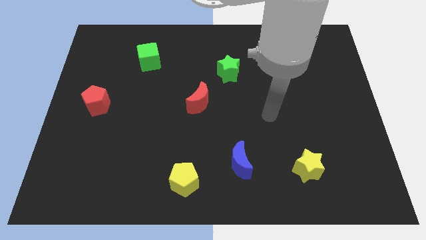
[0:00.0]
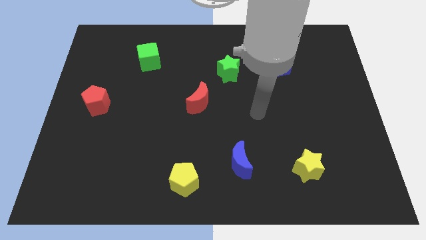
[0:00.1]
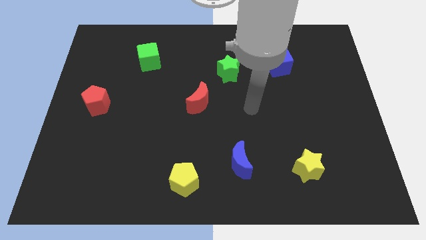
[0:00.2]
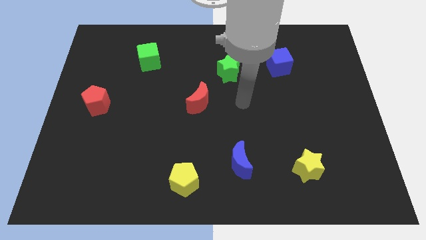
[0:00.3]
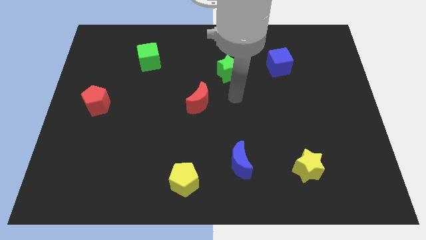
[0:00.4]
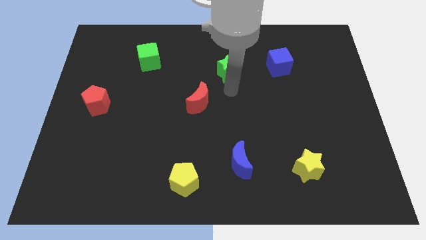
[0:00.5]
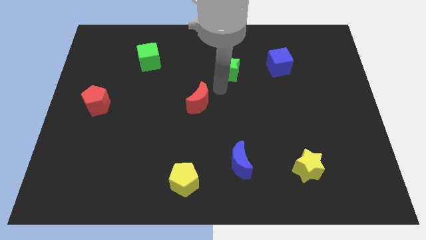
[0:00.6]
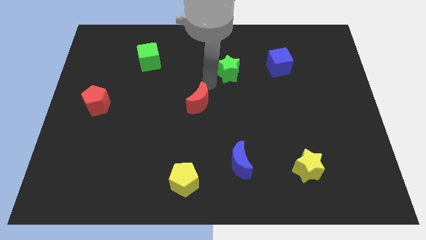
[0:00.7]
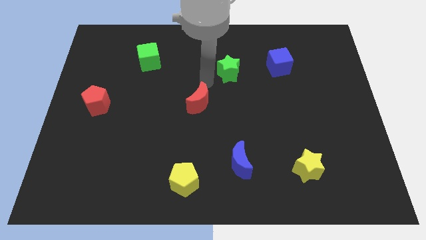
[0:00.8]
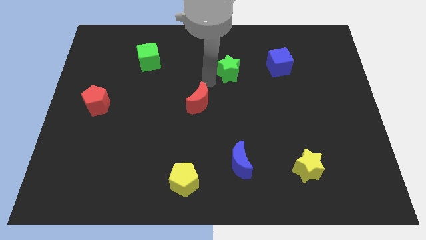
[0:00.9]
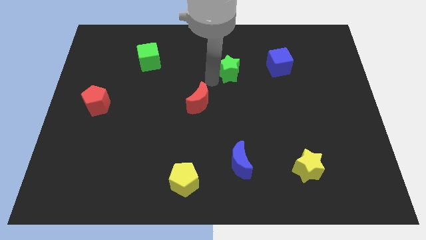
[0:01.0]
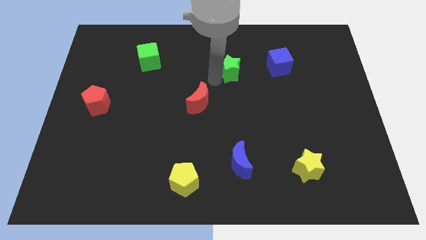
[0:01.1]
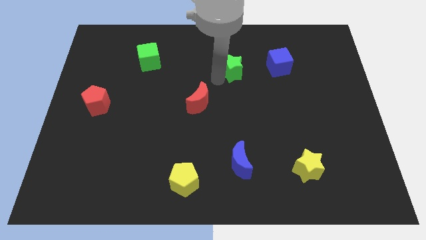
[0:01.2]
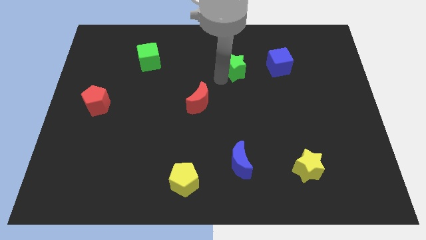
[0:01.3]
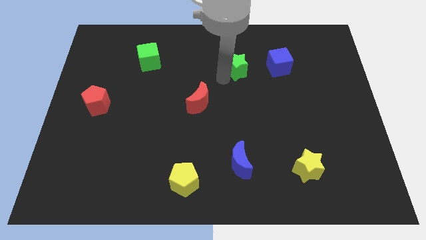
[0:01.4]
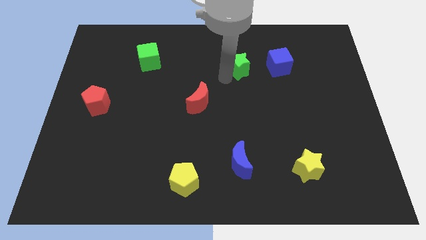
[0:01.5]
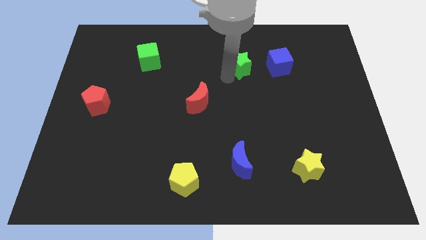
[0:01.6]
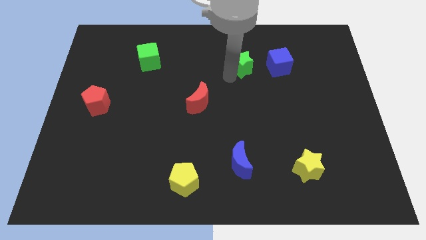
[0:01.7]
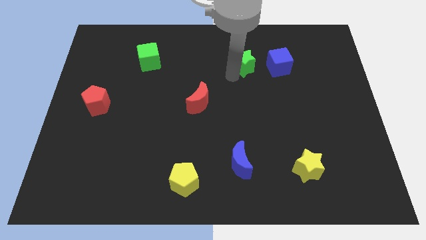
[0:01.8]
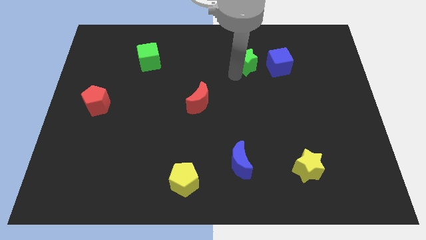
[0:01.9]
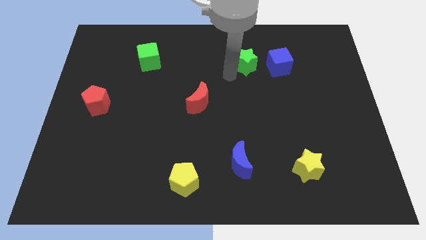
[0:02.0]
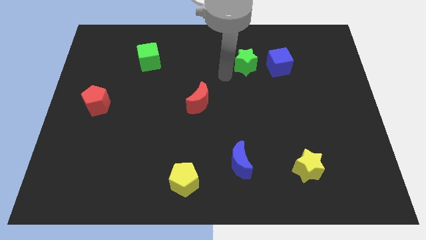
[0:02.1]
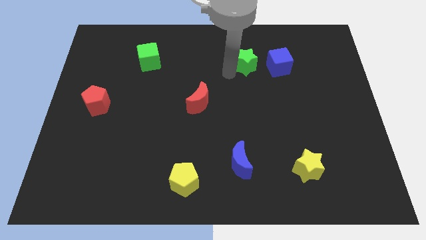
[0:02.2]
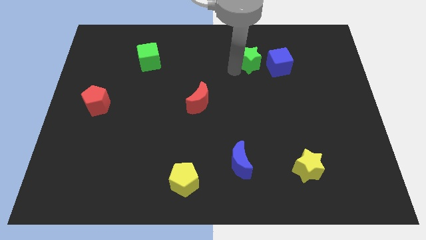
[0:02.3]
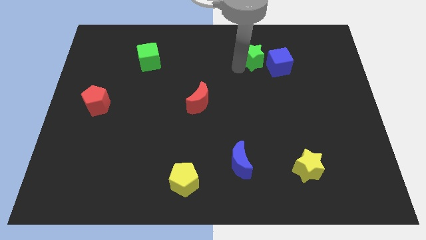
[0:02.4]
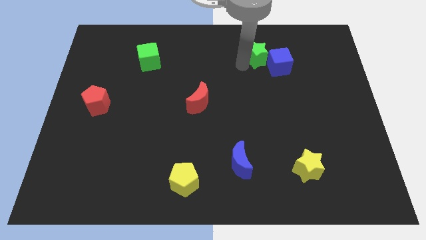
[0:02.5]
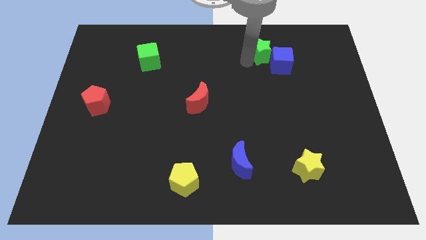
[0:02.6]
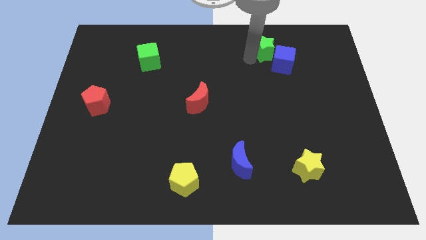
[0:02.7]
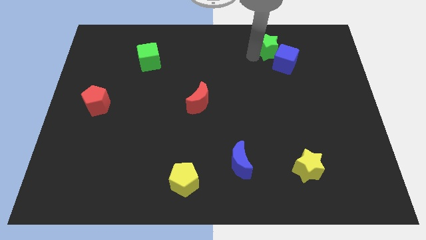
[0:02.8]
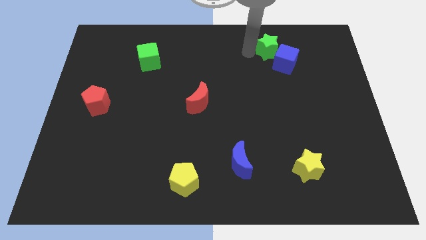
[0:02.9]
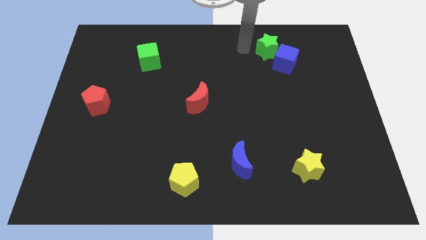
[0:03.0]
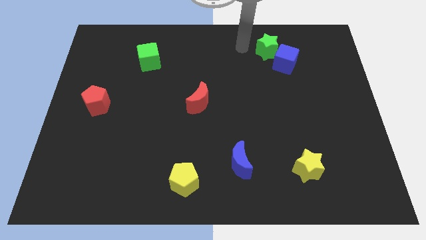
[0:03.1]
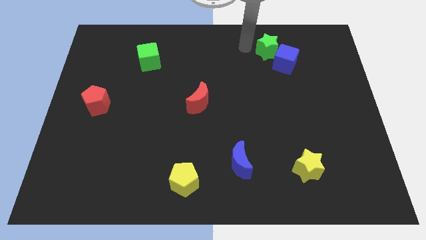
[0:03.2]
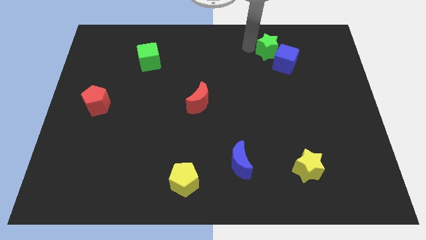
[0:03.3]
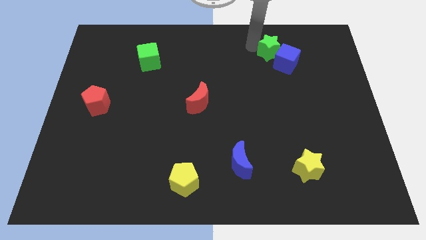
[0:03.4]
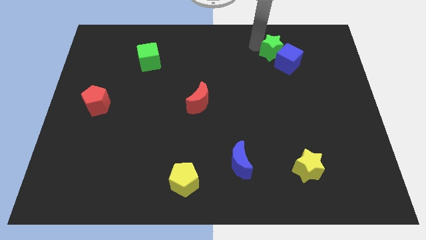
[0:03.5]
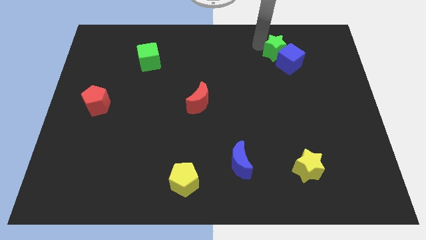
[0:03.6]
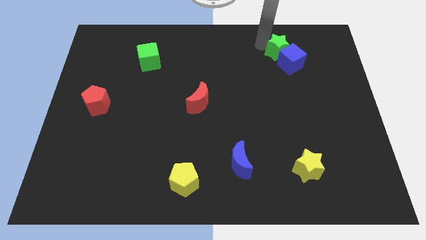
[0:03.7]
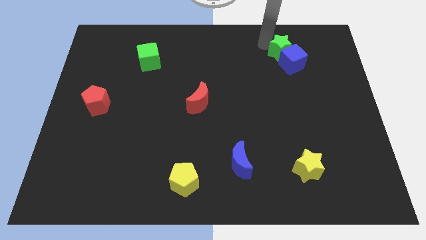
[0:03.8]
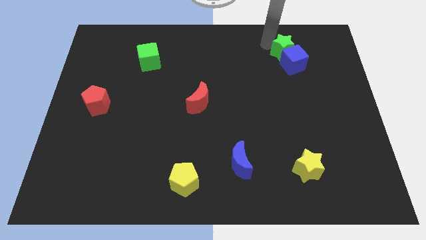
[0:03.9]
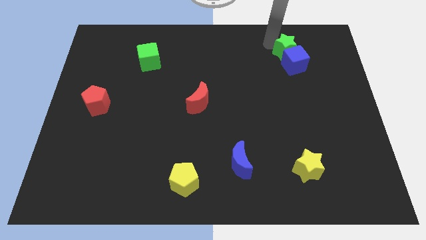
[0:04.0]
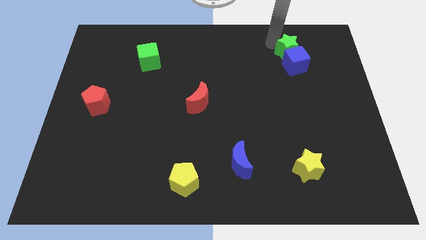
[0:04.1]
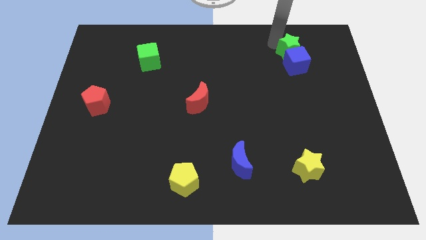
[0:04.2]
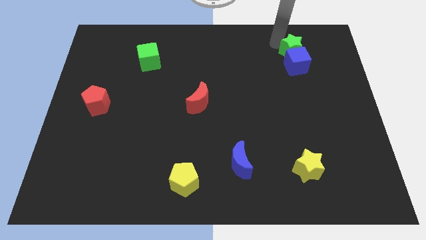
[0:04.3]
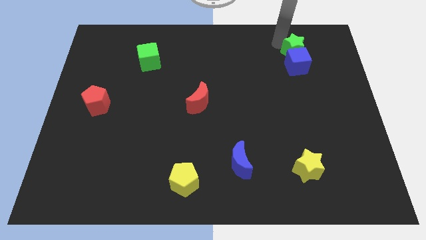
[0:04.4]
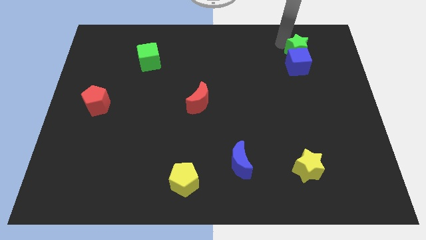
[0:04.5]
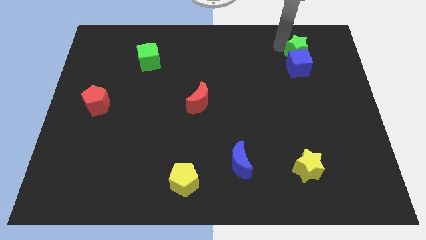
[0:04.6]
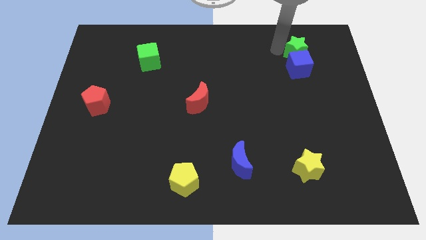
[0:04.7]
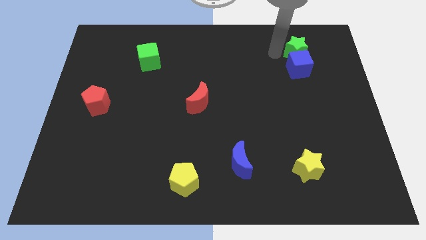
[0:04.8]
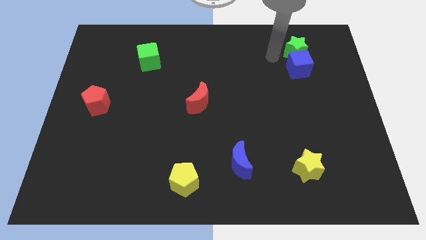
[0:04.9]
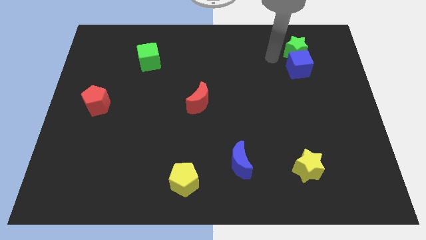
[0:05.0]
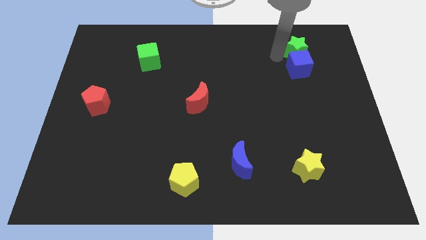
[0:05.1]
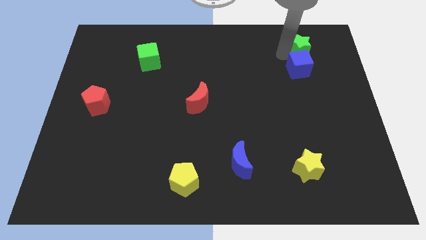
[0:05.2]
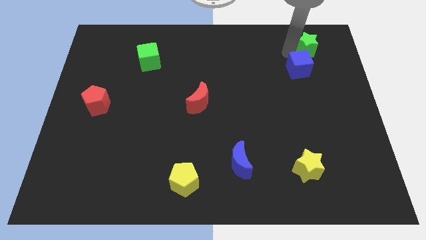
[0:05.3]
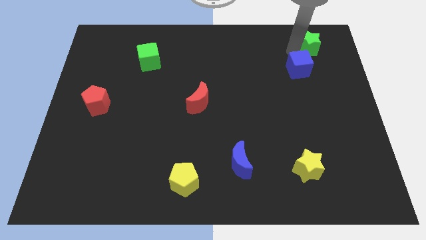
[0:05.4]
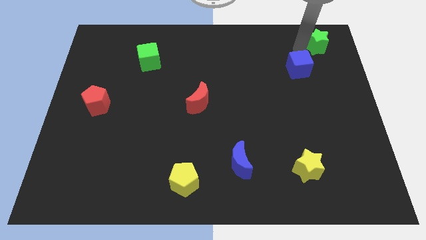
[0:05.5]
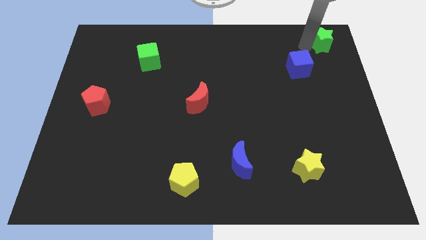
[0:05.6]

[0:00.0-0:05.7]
move the green star to the upper right corner
